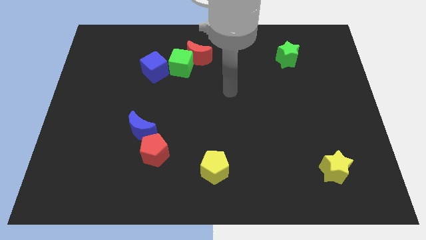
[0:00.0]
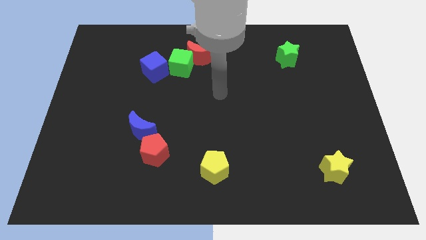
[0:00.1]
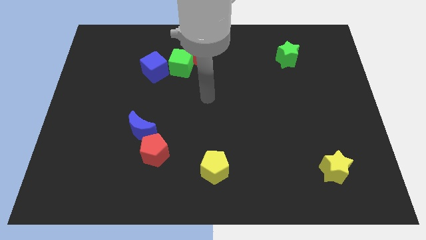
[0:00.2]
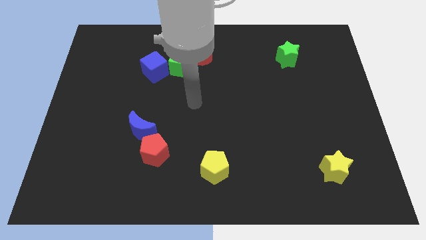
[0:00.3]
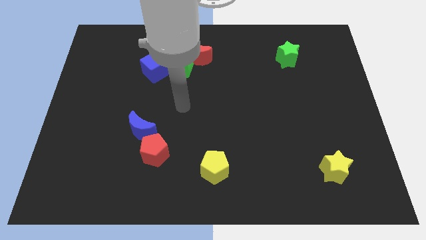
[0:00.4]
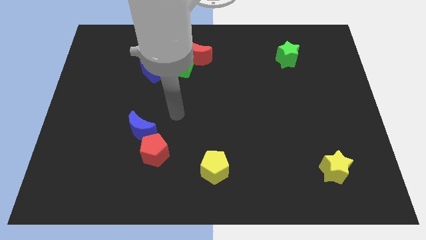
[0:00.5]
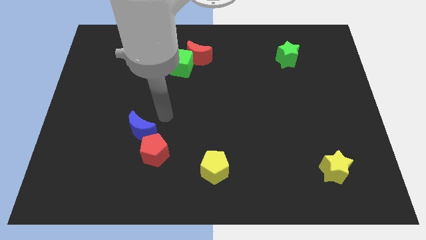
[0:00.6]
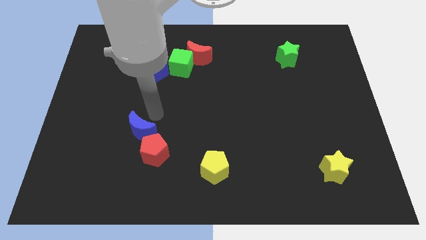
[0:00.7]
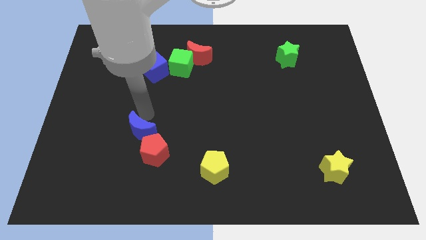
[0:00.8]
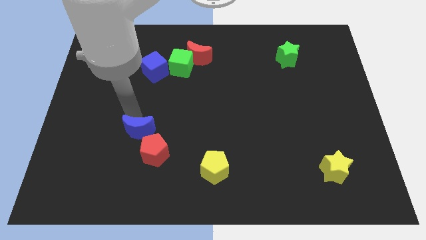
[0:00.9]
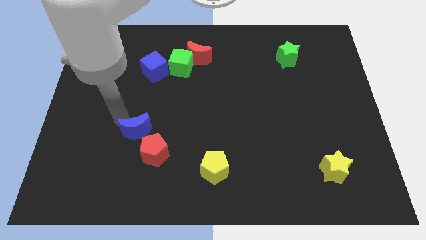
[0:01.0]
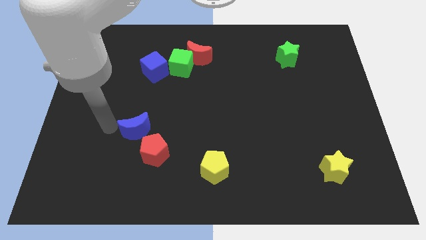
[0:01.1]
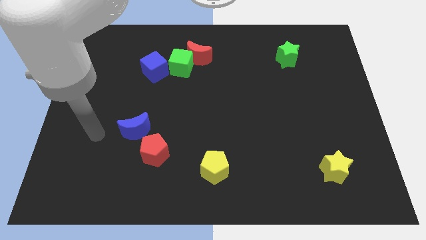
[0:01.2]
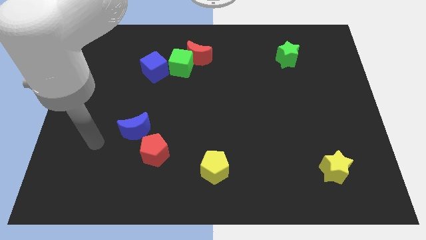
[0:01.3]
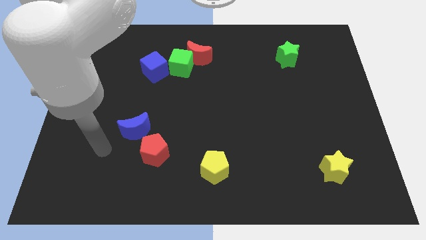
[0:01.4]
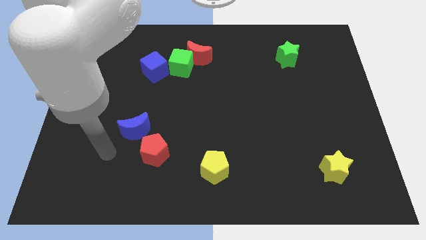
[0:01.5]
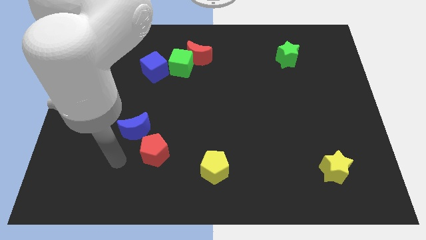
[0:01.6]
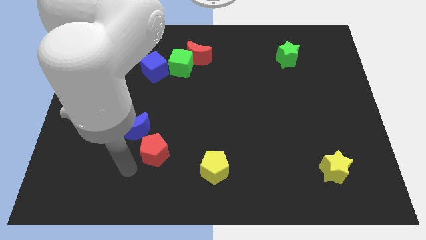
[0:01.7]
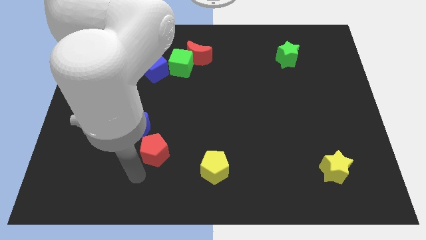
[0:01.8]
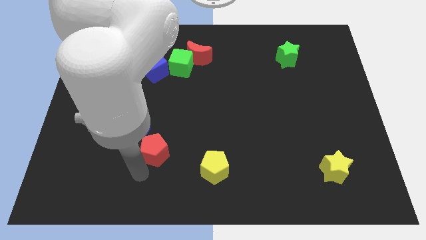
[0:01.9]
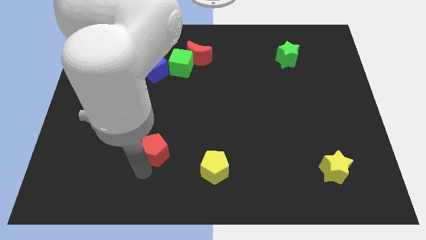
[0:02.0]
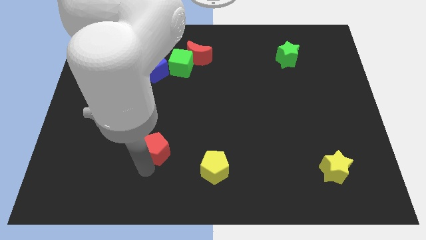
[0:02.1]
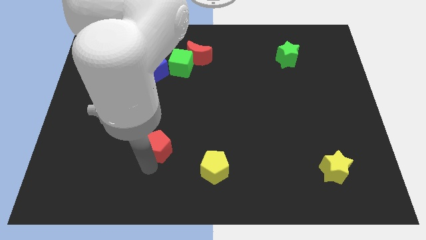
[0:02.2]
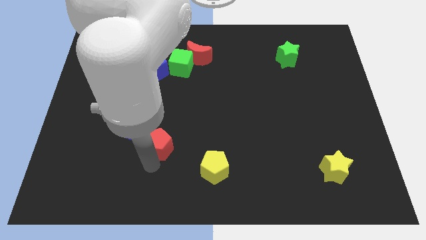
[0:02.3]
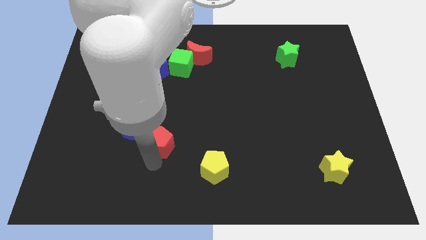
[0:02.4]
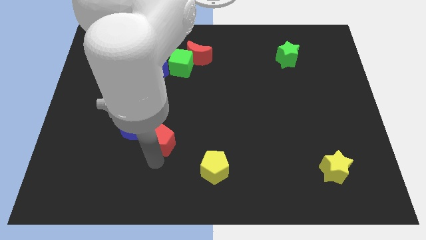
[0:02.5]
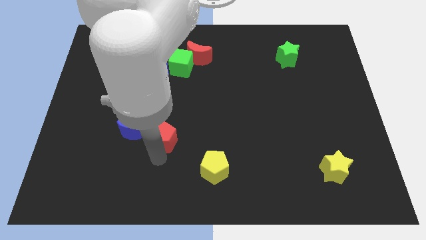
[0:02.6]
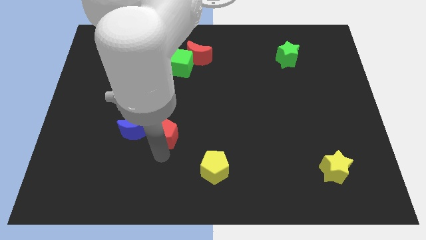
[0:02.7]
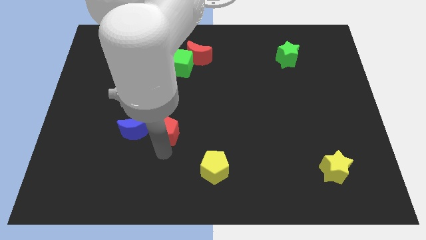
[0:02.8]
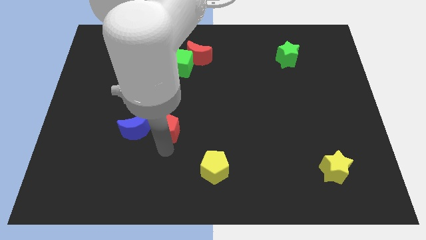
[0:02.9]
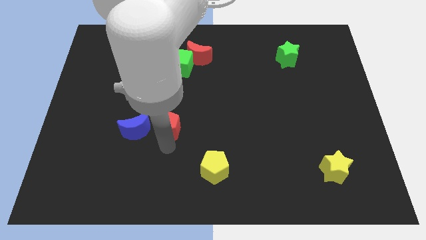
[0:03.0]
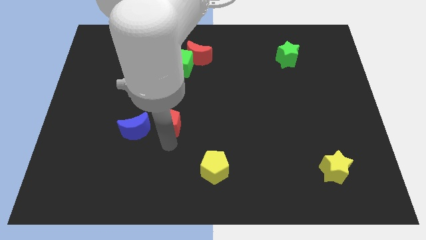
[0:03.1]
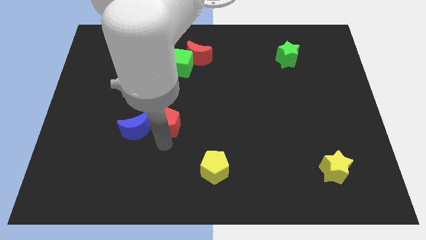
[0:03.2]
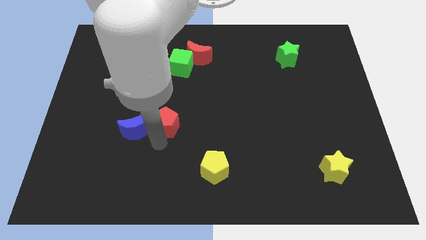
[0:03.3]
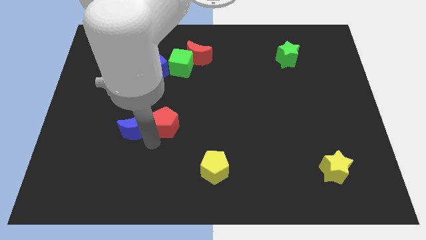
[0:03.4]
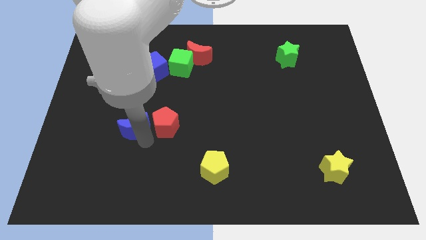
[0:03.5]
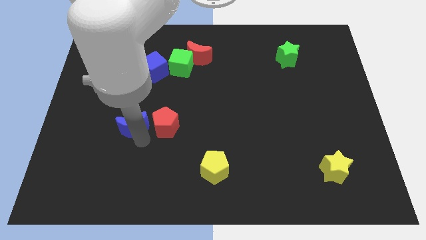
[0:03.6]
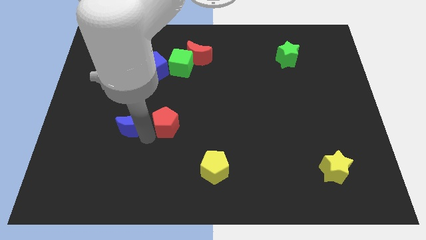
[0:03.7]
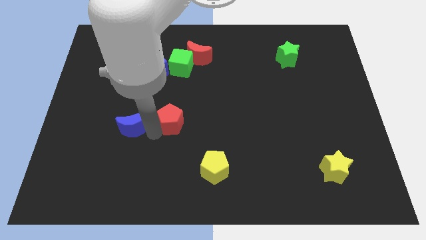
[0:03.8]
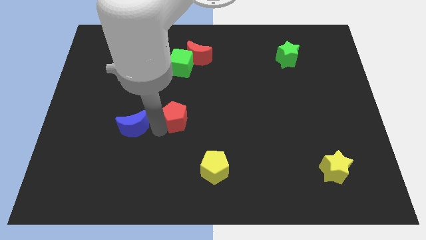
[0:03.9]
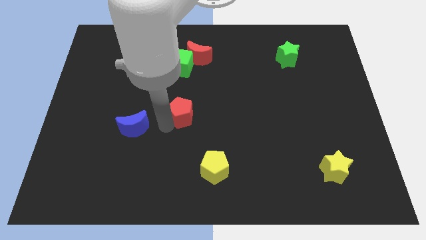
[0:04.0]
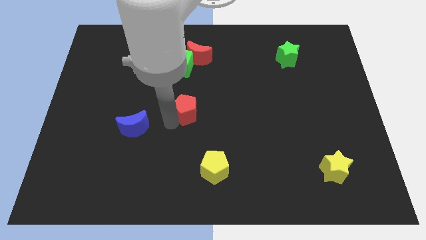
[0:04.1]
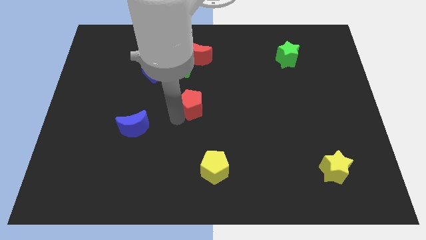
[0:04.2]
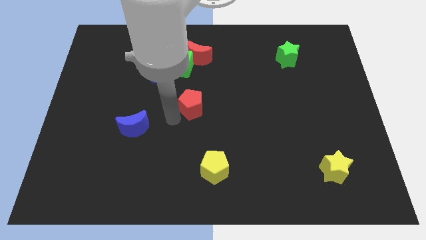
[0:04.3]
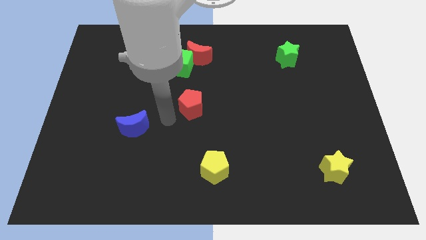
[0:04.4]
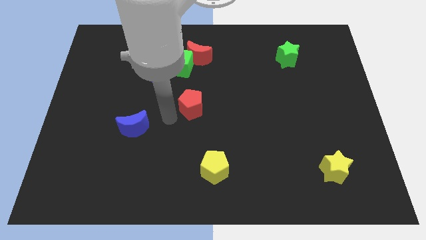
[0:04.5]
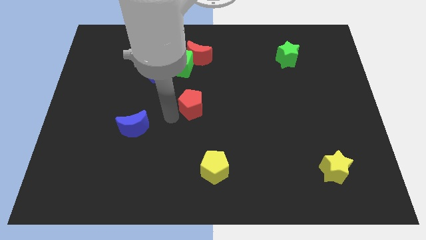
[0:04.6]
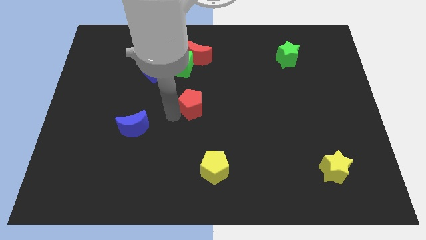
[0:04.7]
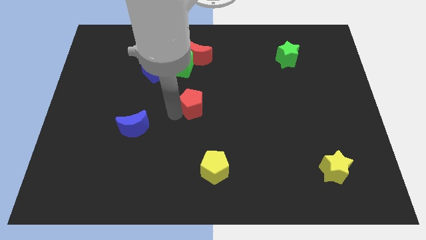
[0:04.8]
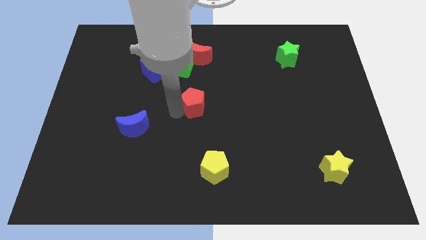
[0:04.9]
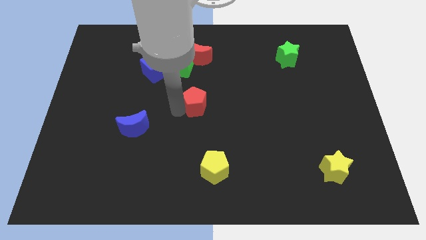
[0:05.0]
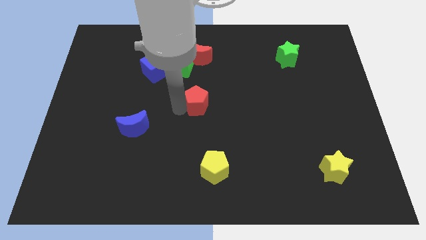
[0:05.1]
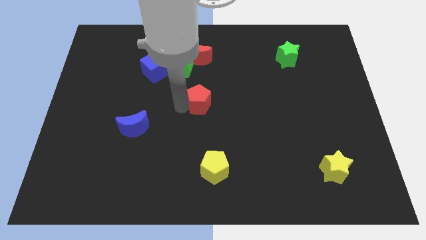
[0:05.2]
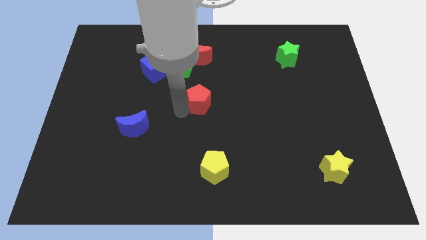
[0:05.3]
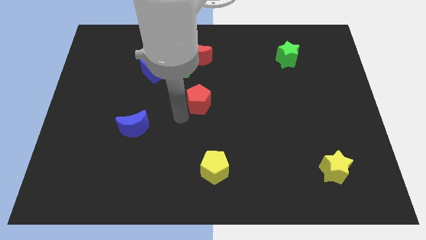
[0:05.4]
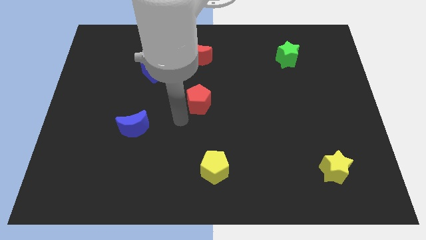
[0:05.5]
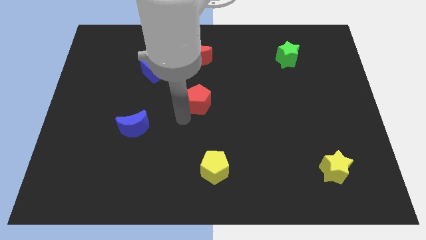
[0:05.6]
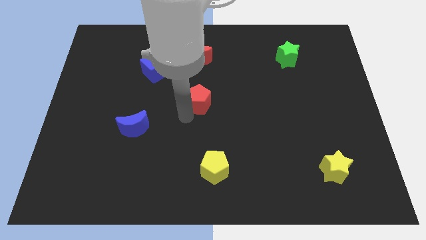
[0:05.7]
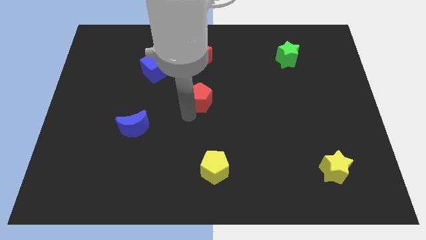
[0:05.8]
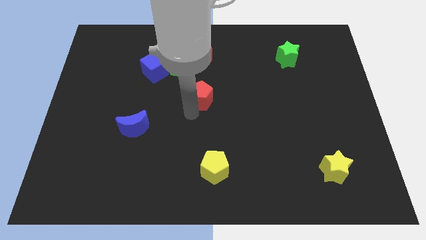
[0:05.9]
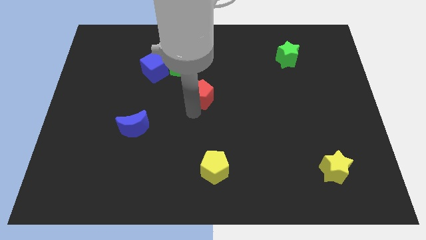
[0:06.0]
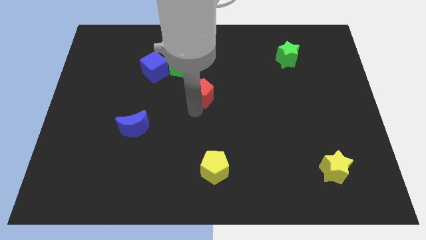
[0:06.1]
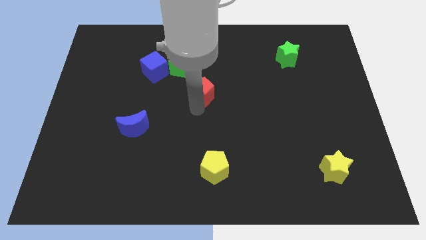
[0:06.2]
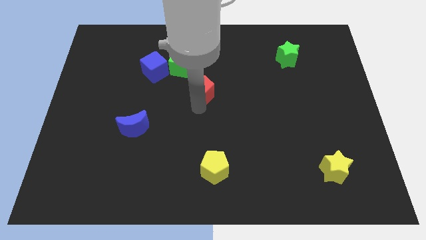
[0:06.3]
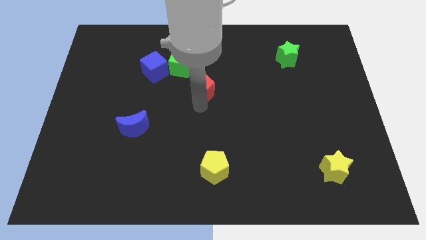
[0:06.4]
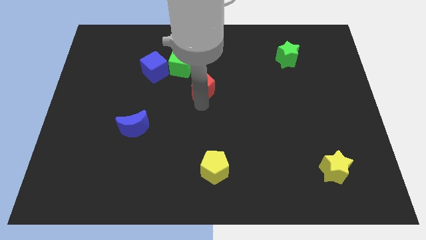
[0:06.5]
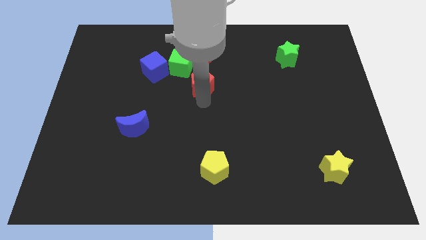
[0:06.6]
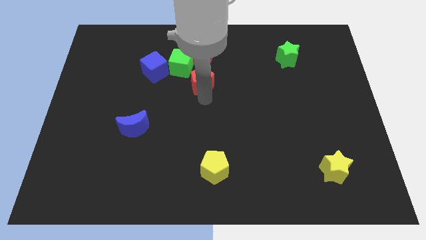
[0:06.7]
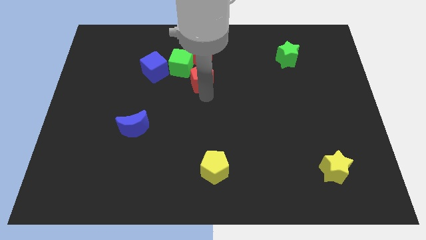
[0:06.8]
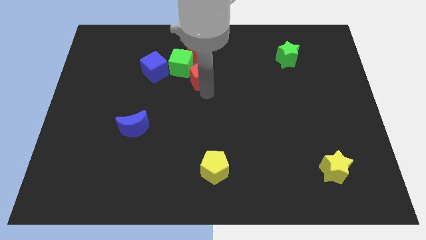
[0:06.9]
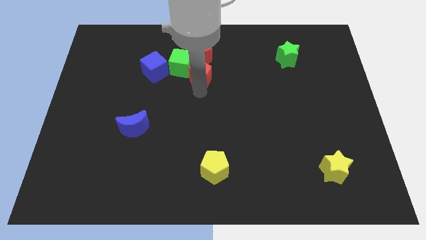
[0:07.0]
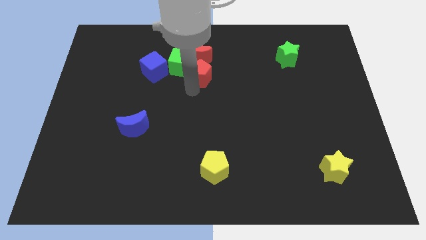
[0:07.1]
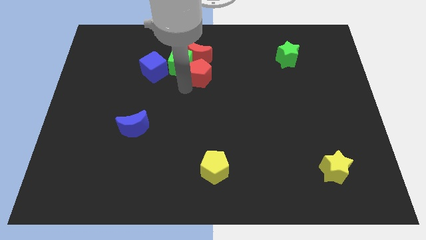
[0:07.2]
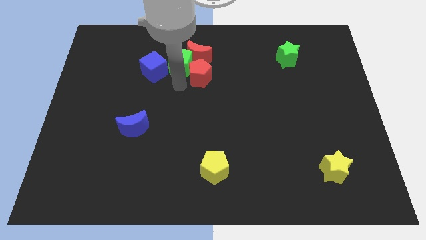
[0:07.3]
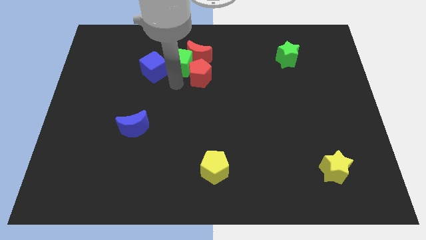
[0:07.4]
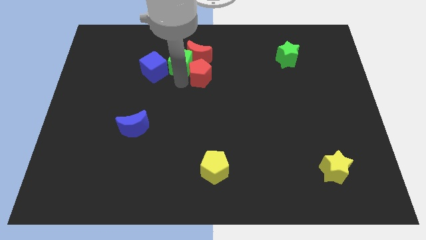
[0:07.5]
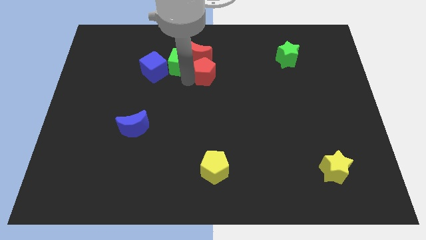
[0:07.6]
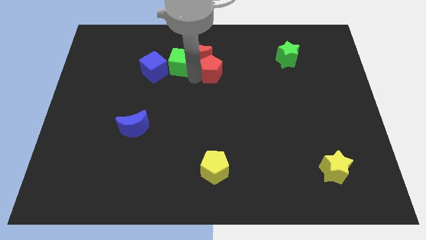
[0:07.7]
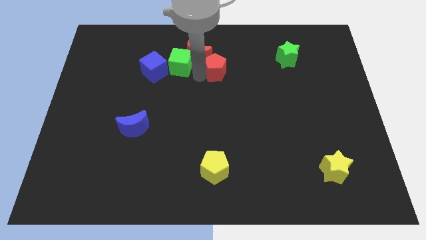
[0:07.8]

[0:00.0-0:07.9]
slide the red pentagon to the right of the red moon
